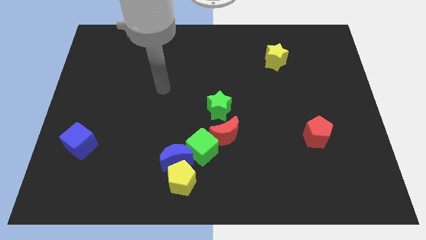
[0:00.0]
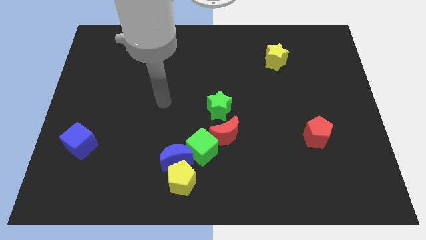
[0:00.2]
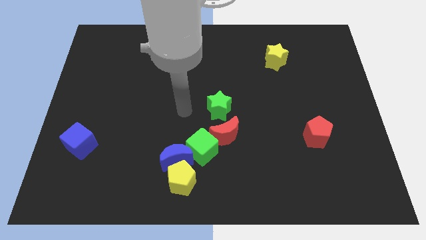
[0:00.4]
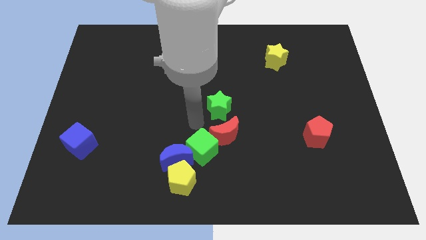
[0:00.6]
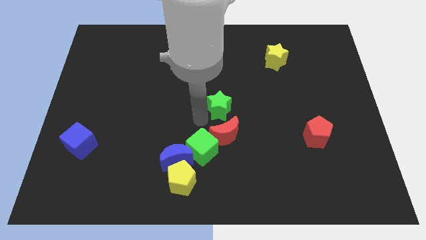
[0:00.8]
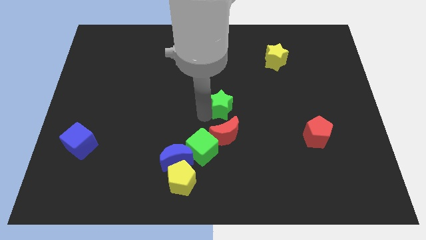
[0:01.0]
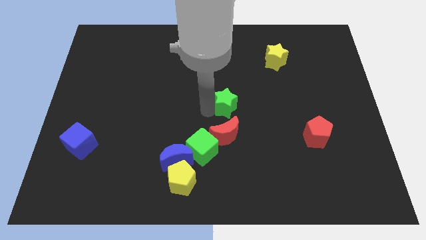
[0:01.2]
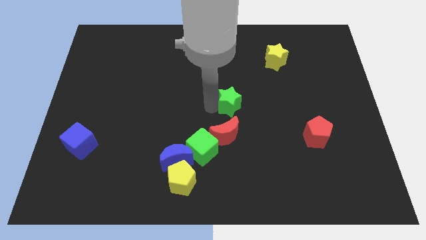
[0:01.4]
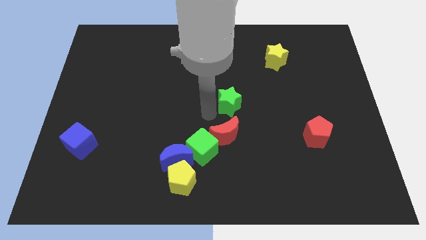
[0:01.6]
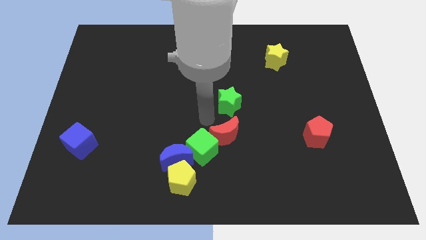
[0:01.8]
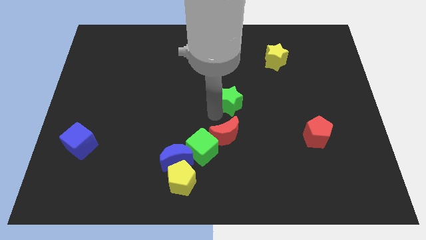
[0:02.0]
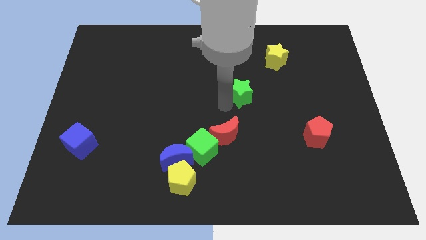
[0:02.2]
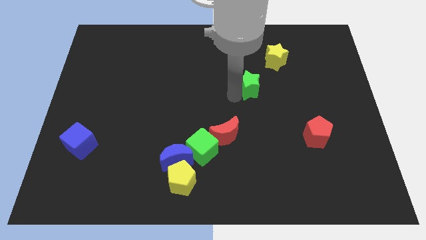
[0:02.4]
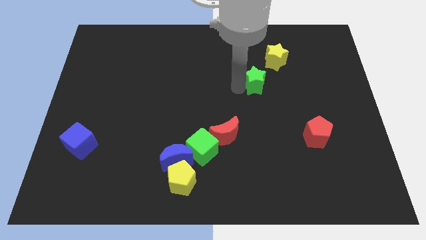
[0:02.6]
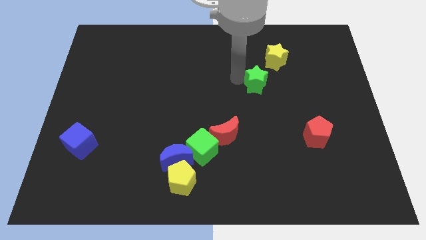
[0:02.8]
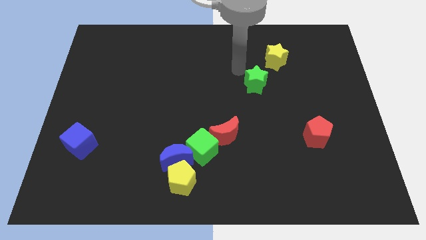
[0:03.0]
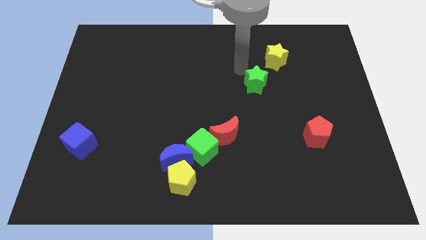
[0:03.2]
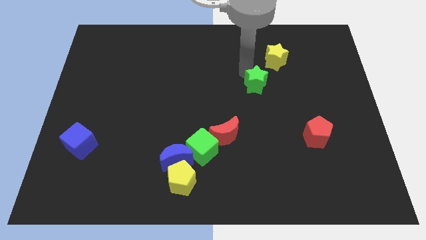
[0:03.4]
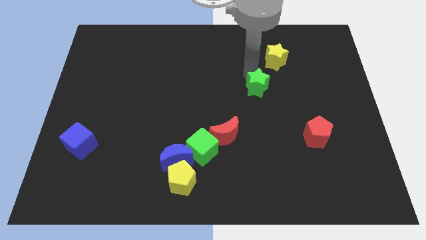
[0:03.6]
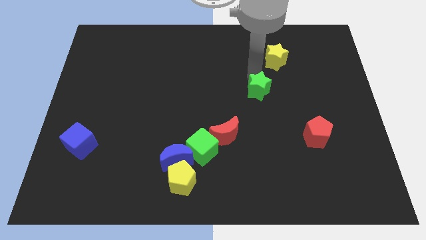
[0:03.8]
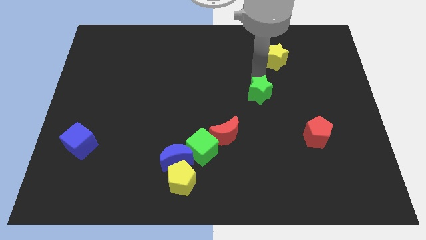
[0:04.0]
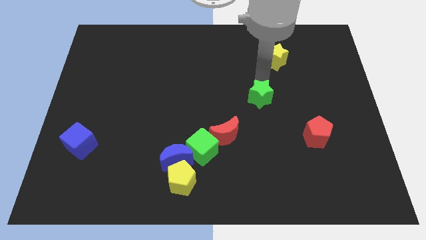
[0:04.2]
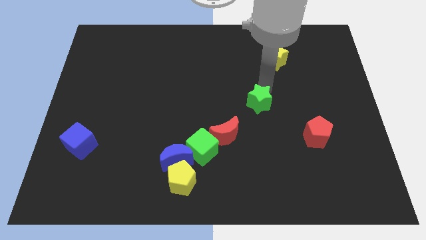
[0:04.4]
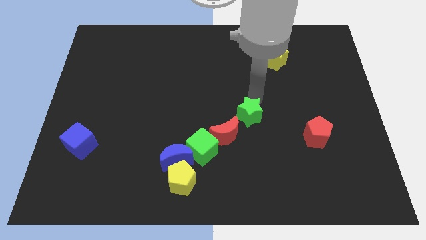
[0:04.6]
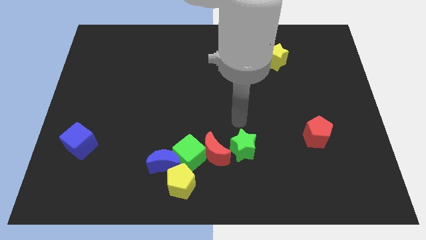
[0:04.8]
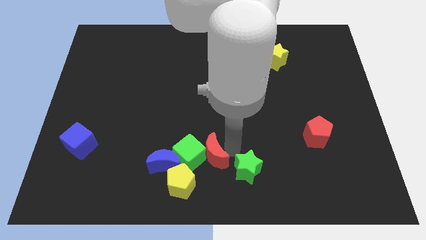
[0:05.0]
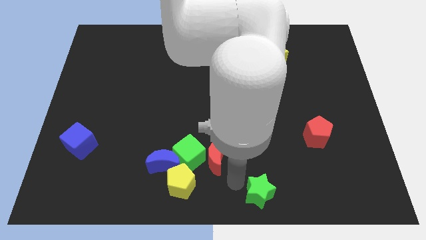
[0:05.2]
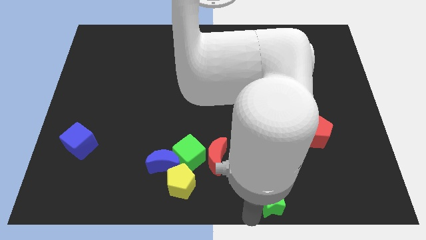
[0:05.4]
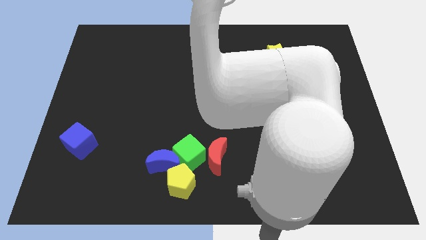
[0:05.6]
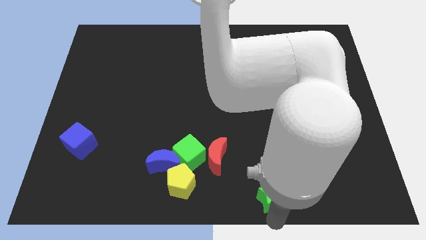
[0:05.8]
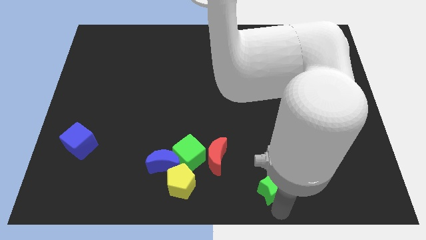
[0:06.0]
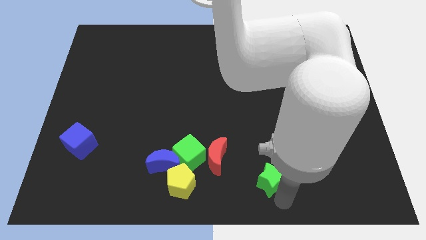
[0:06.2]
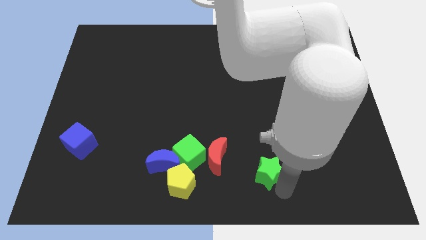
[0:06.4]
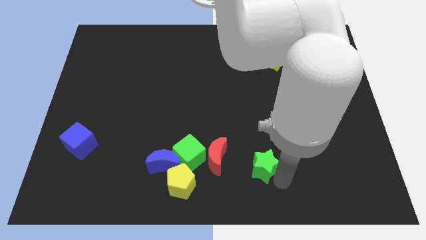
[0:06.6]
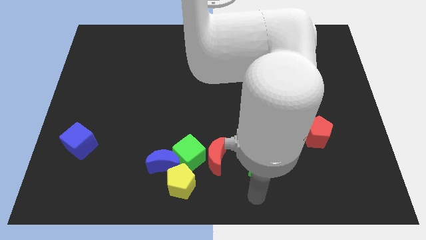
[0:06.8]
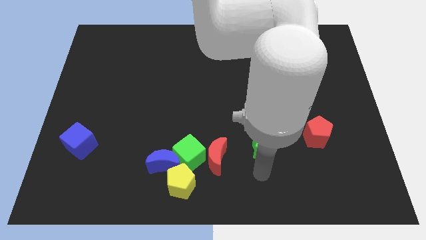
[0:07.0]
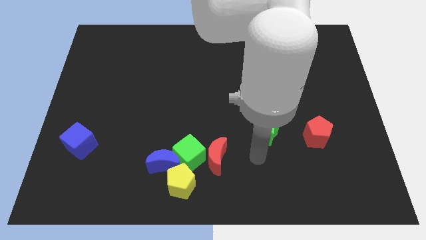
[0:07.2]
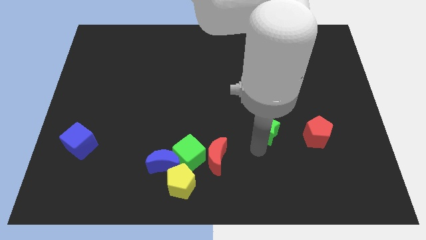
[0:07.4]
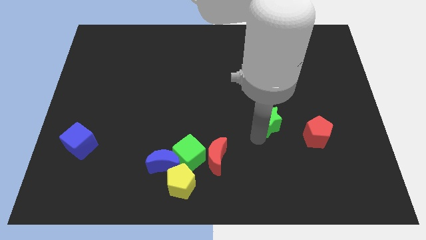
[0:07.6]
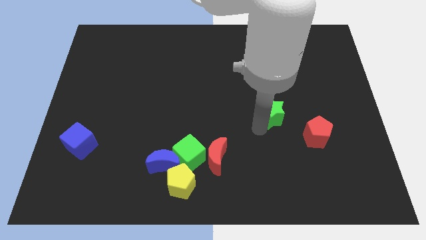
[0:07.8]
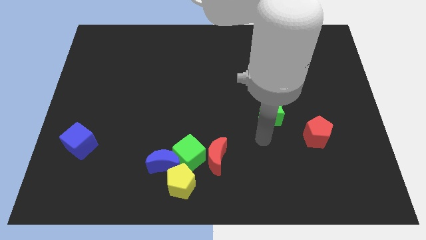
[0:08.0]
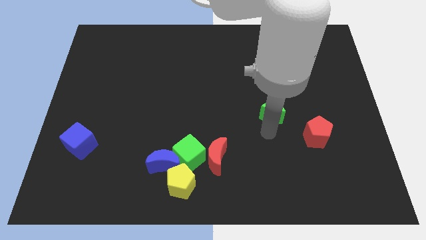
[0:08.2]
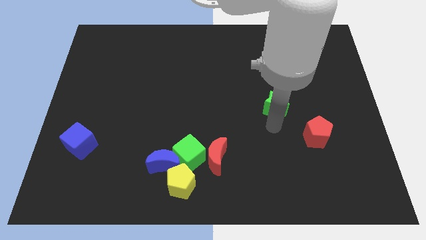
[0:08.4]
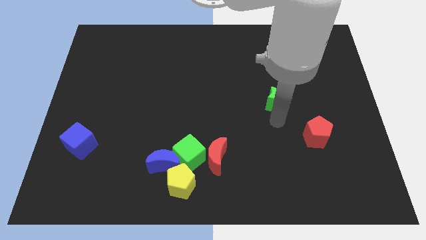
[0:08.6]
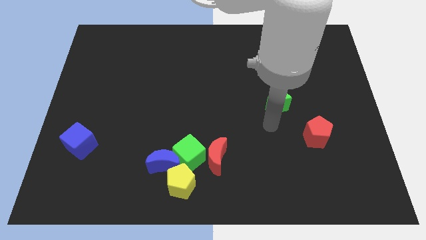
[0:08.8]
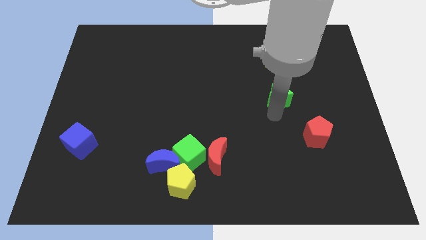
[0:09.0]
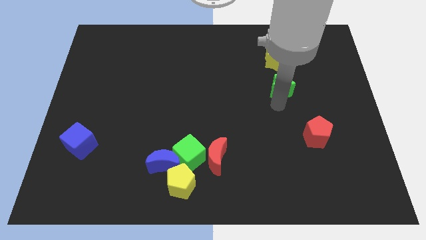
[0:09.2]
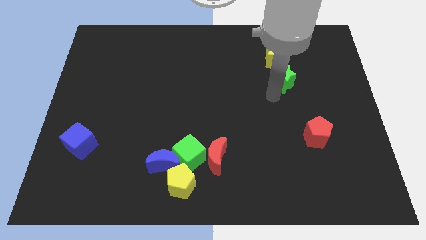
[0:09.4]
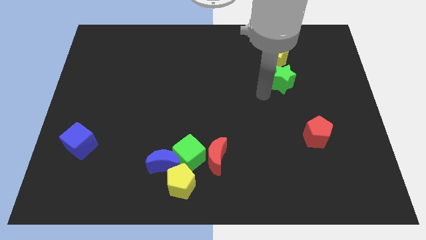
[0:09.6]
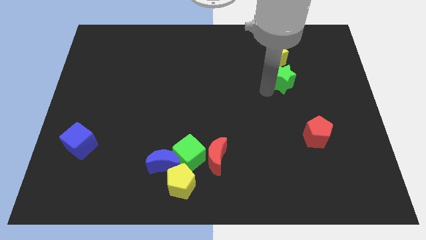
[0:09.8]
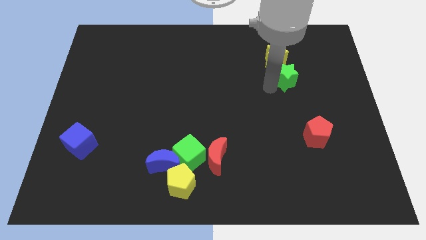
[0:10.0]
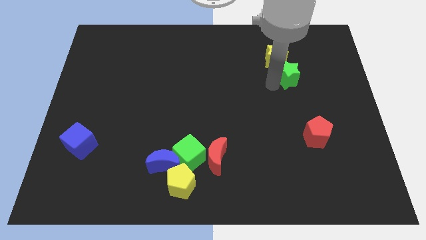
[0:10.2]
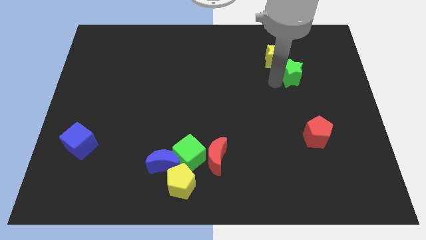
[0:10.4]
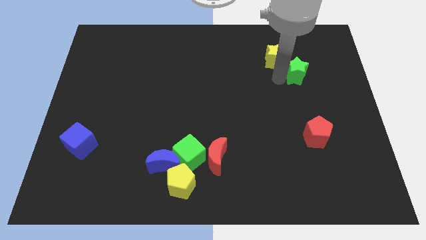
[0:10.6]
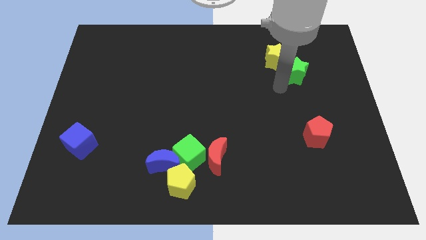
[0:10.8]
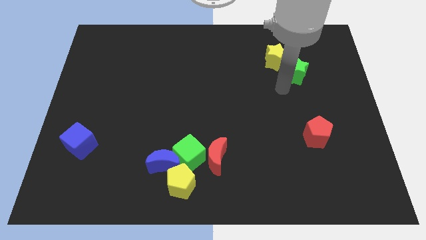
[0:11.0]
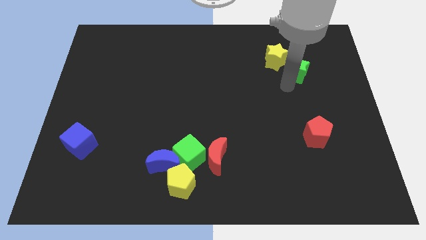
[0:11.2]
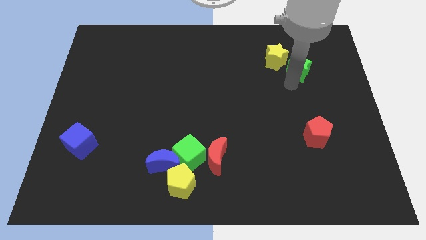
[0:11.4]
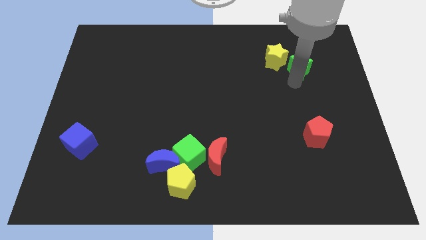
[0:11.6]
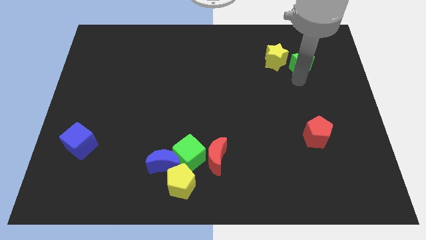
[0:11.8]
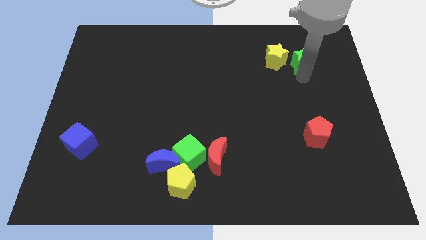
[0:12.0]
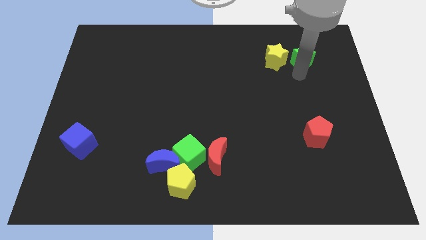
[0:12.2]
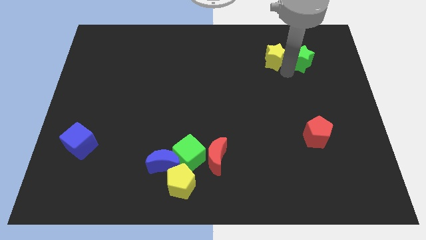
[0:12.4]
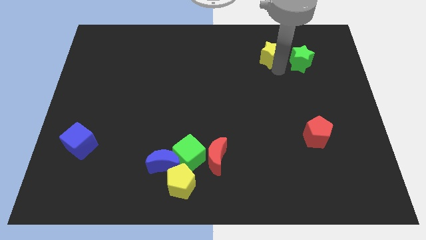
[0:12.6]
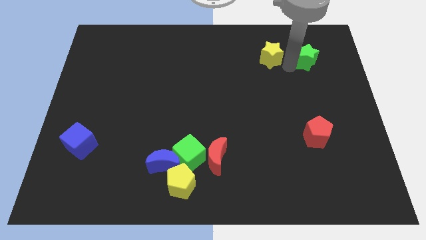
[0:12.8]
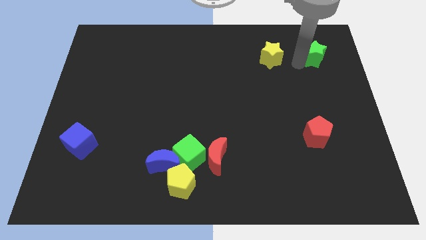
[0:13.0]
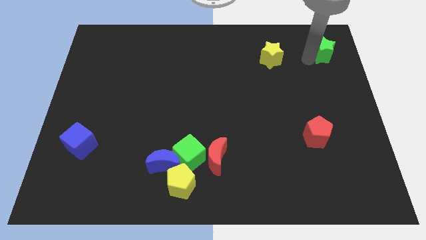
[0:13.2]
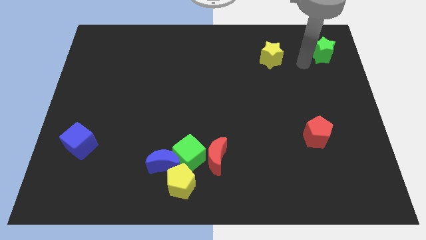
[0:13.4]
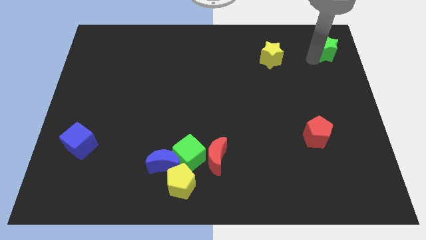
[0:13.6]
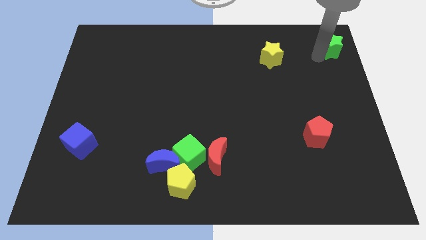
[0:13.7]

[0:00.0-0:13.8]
put the green star to the top right corner
